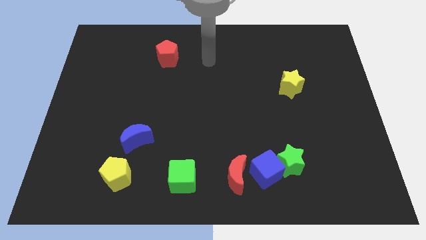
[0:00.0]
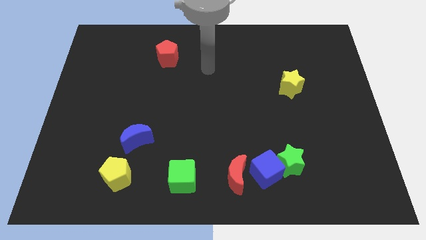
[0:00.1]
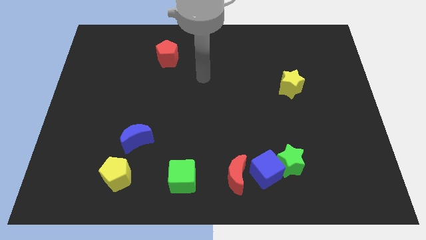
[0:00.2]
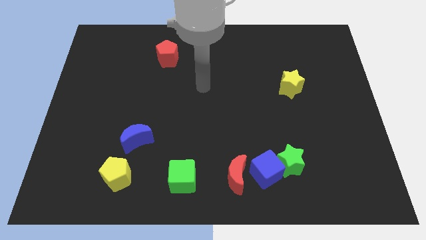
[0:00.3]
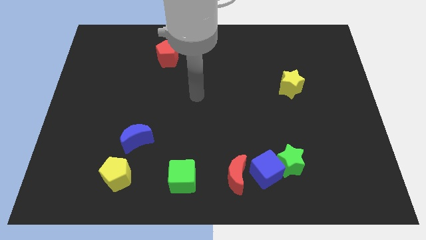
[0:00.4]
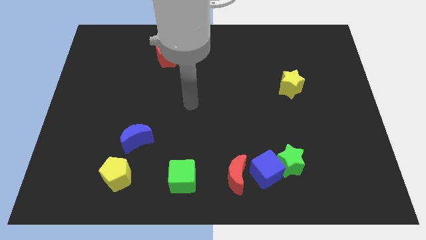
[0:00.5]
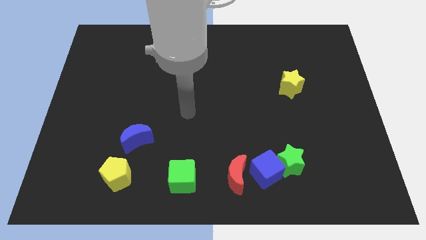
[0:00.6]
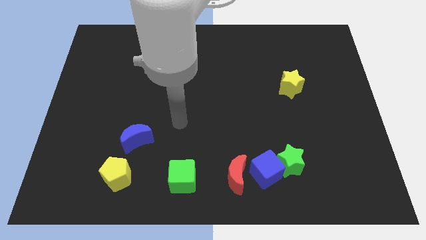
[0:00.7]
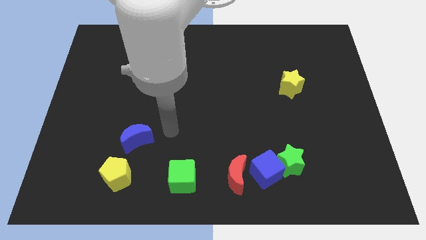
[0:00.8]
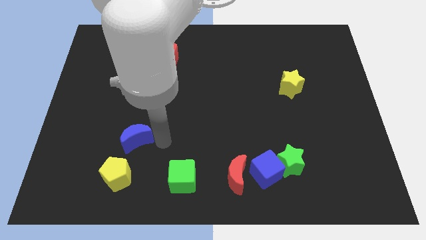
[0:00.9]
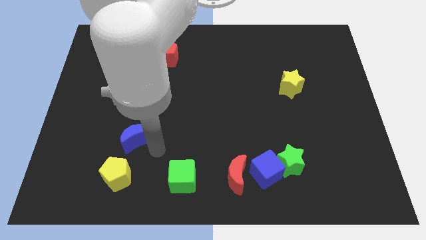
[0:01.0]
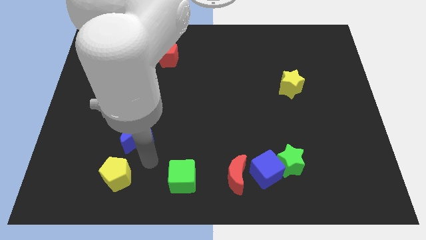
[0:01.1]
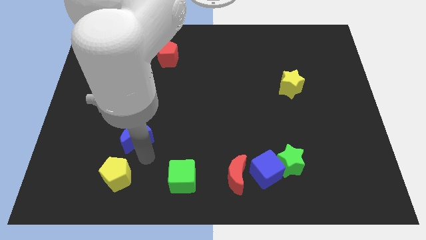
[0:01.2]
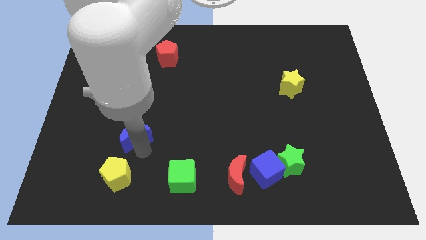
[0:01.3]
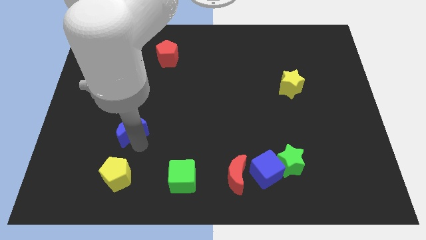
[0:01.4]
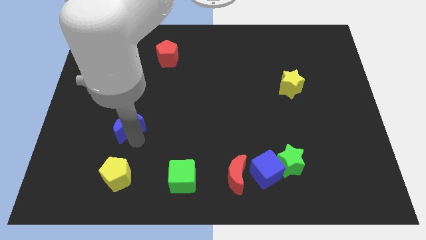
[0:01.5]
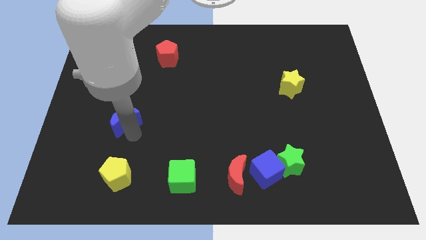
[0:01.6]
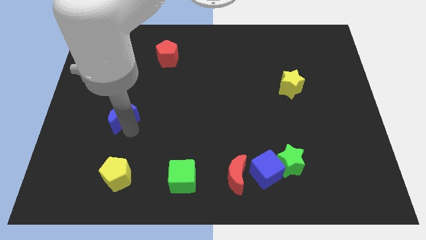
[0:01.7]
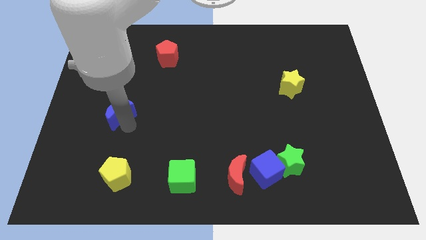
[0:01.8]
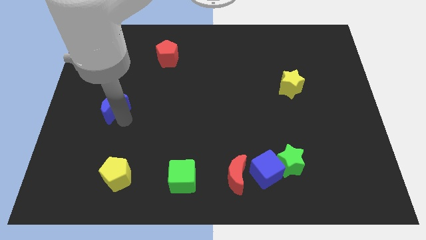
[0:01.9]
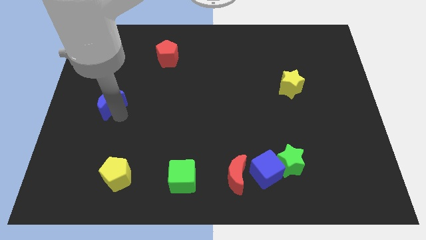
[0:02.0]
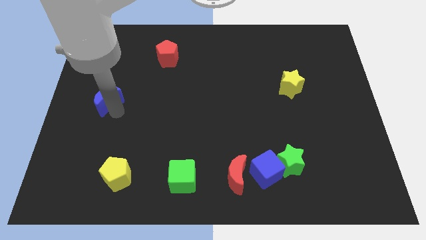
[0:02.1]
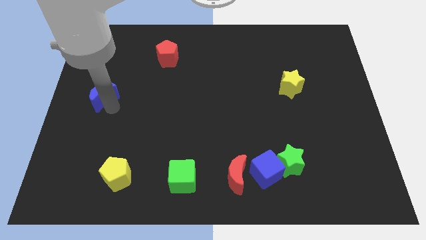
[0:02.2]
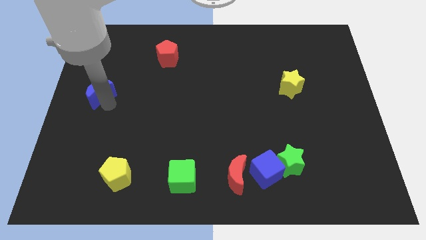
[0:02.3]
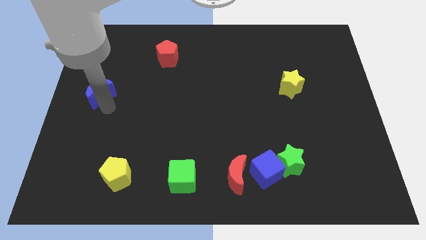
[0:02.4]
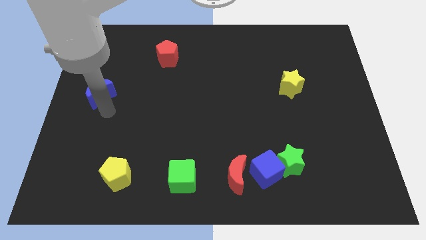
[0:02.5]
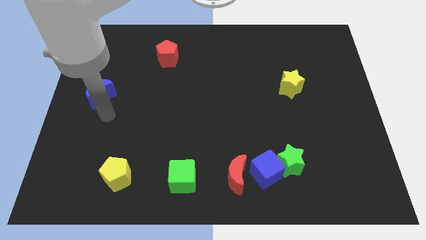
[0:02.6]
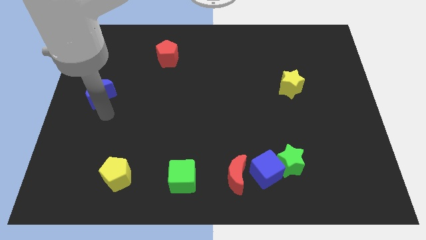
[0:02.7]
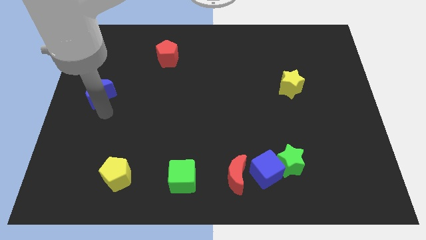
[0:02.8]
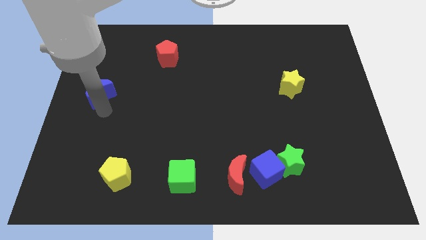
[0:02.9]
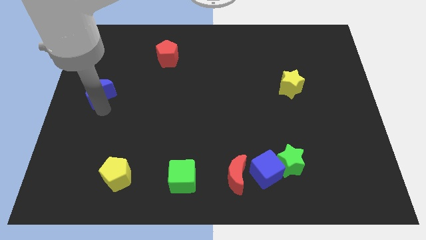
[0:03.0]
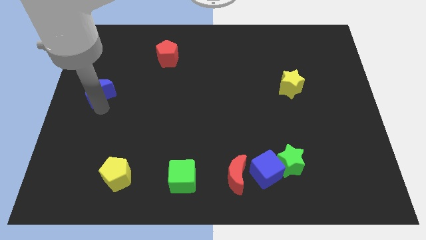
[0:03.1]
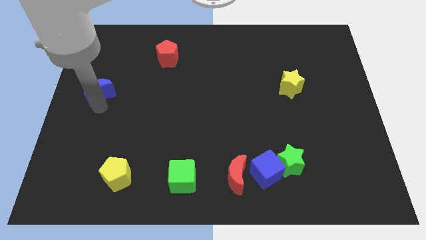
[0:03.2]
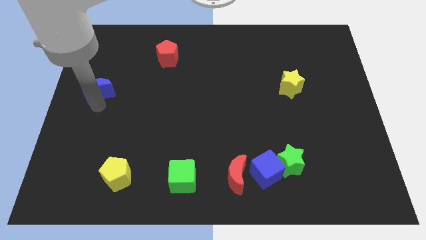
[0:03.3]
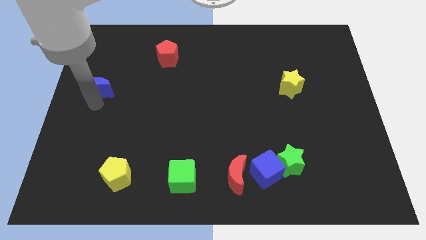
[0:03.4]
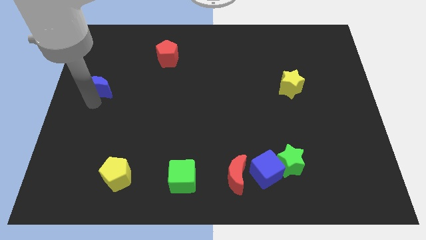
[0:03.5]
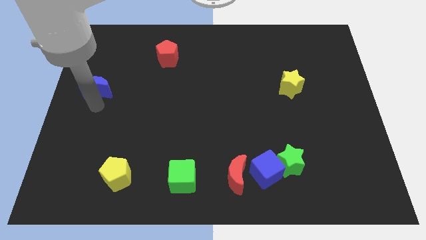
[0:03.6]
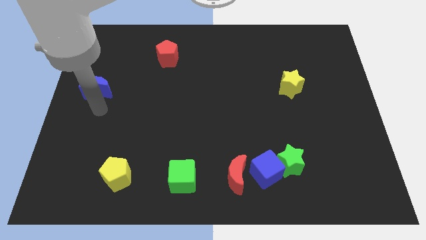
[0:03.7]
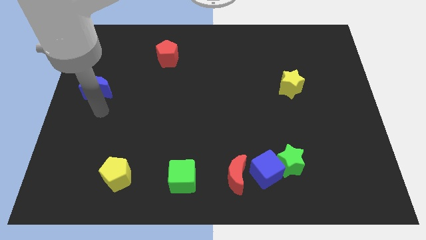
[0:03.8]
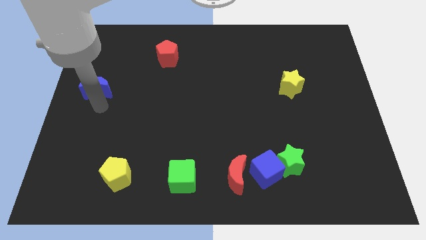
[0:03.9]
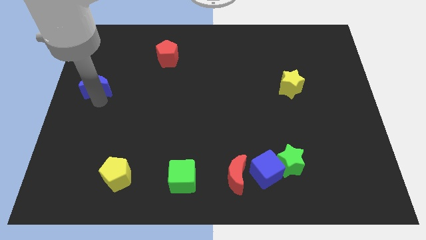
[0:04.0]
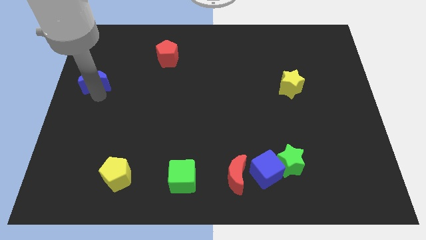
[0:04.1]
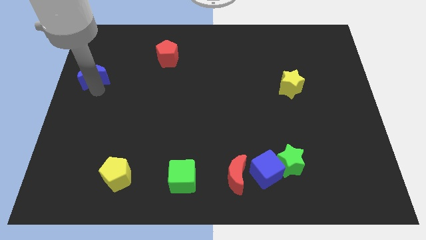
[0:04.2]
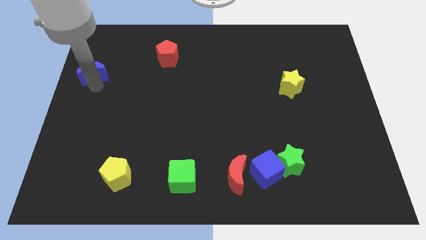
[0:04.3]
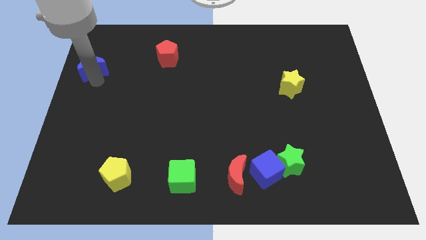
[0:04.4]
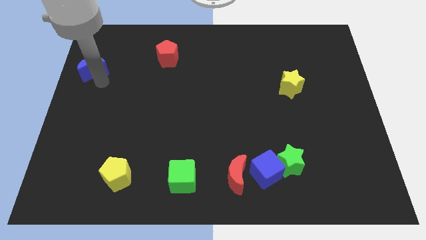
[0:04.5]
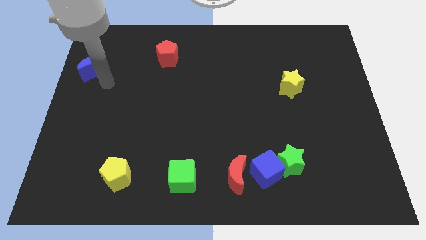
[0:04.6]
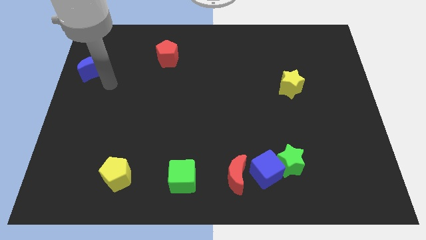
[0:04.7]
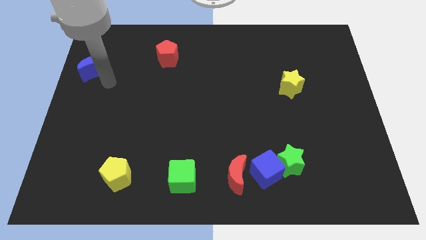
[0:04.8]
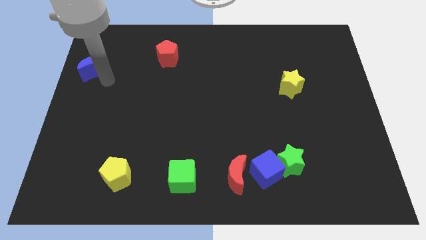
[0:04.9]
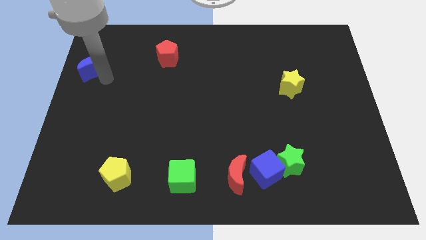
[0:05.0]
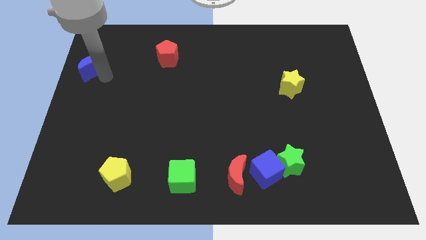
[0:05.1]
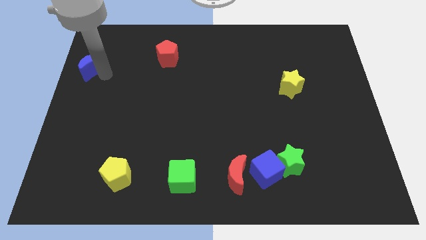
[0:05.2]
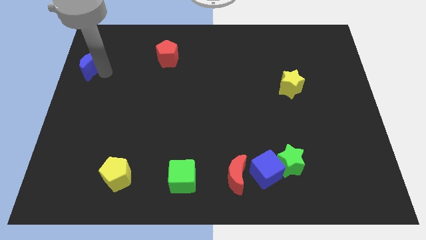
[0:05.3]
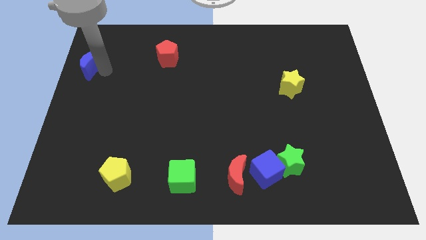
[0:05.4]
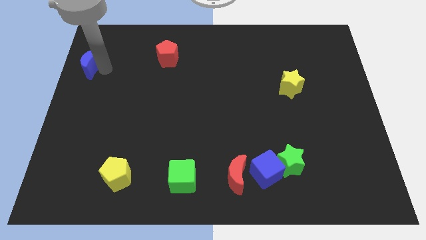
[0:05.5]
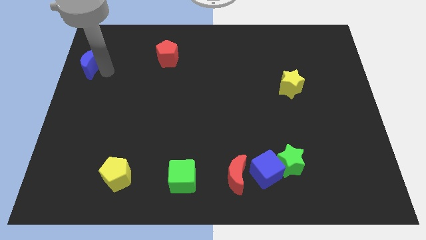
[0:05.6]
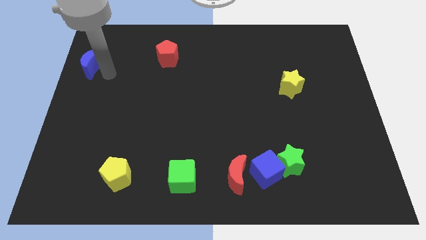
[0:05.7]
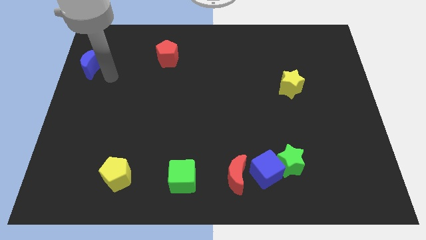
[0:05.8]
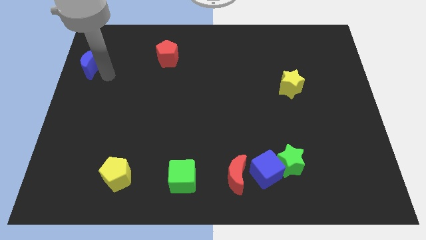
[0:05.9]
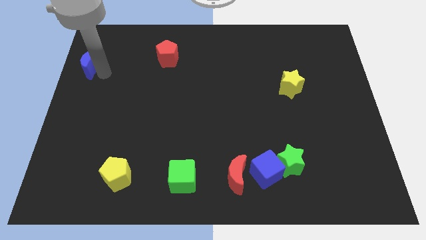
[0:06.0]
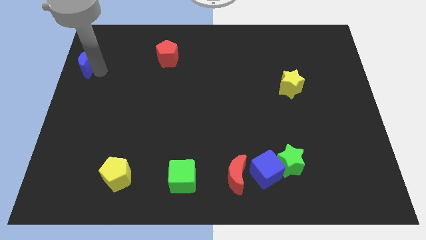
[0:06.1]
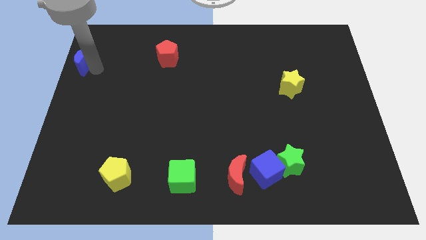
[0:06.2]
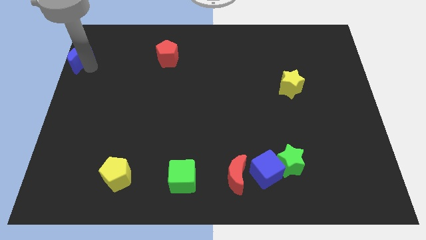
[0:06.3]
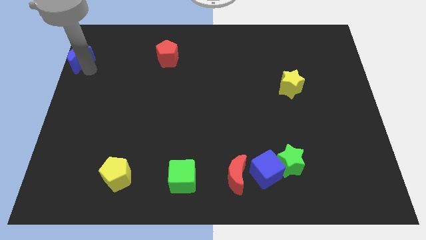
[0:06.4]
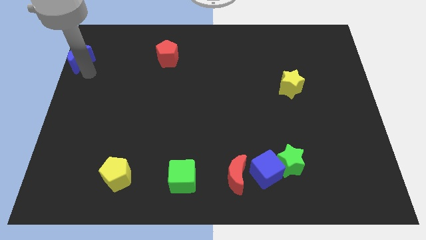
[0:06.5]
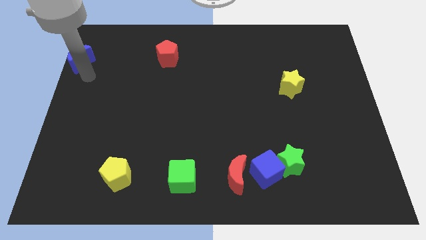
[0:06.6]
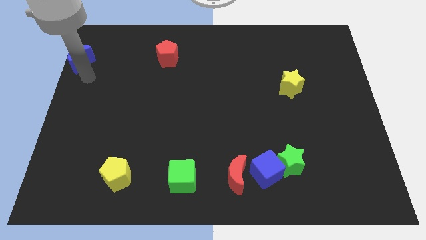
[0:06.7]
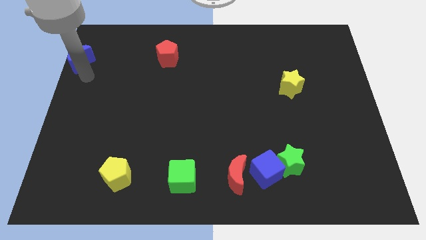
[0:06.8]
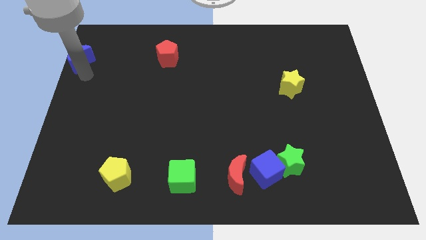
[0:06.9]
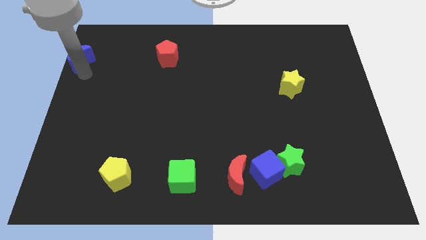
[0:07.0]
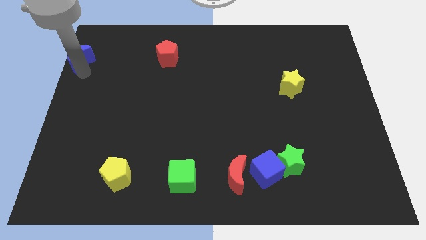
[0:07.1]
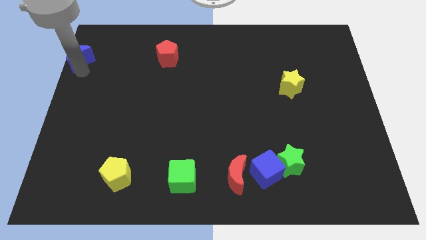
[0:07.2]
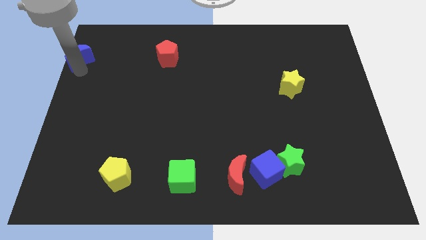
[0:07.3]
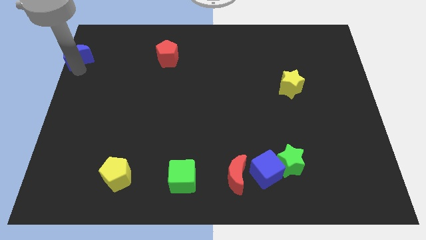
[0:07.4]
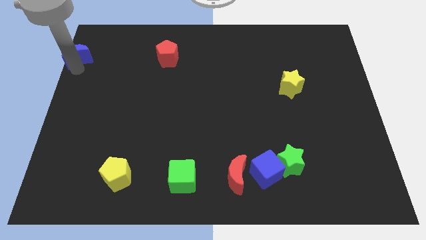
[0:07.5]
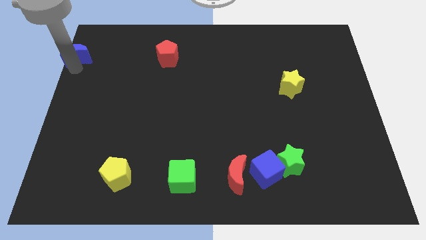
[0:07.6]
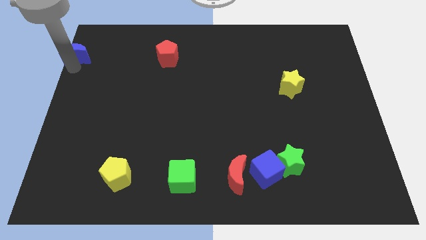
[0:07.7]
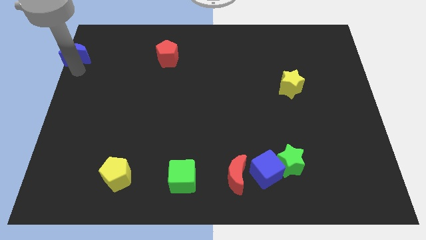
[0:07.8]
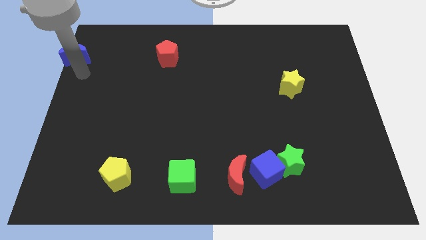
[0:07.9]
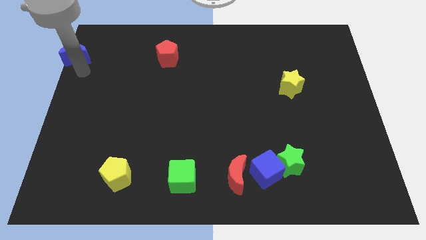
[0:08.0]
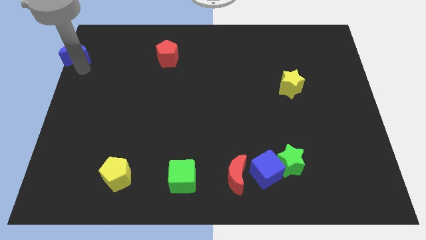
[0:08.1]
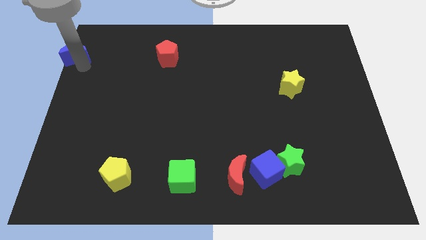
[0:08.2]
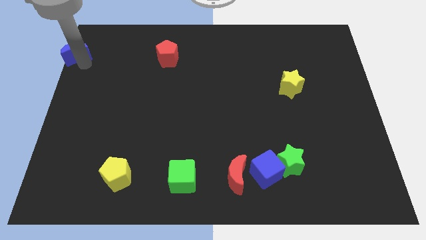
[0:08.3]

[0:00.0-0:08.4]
move the blue moon to the top left
